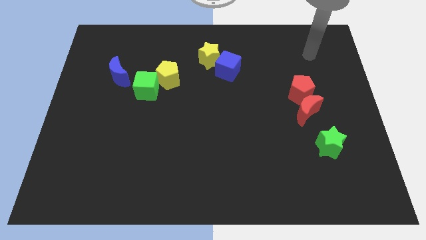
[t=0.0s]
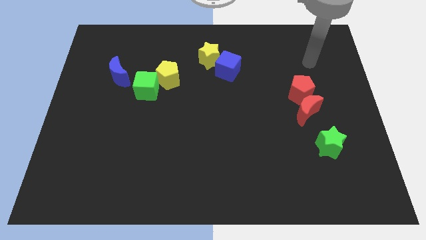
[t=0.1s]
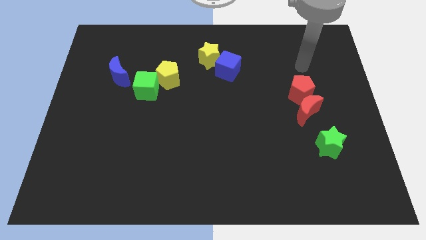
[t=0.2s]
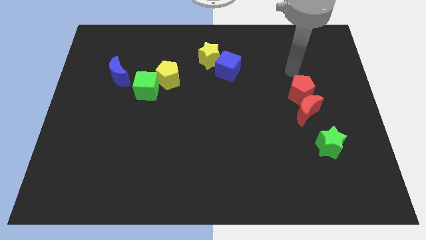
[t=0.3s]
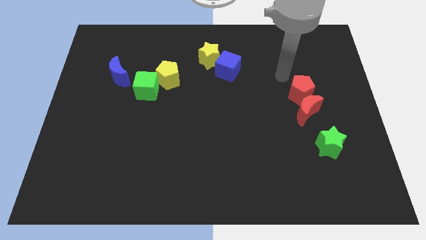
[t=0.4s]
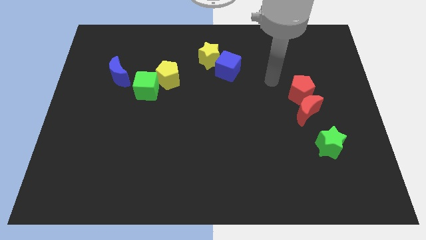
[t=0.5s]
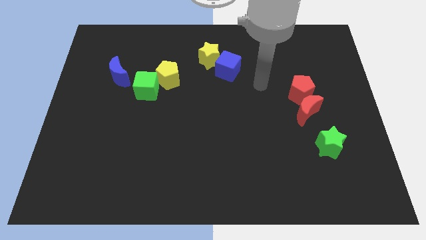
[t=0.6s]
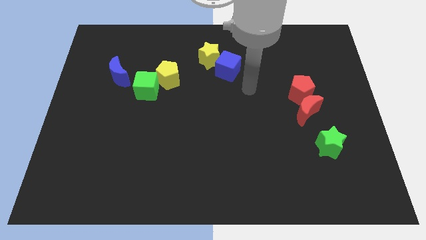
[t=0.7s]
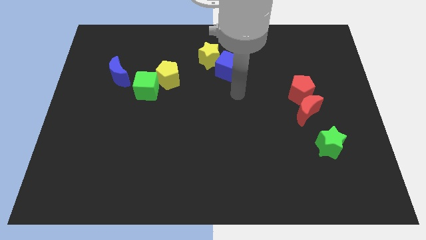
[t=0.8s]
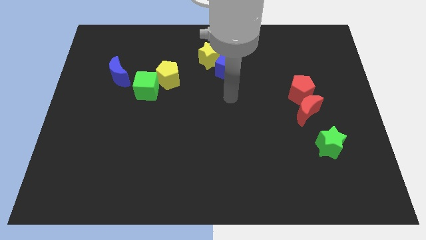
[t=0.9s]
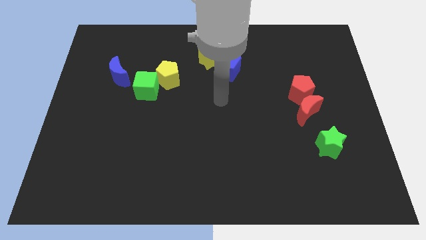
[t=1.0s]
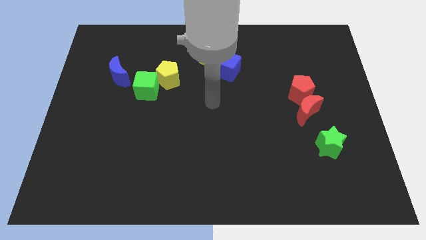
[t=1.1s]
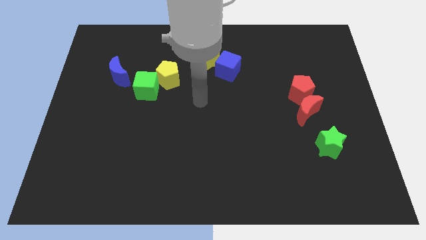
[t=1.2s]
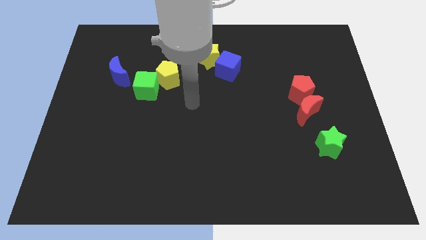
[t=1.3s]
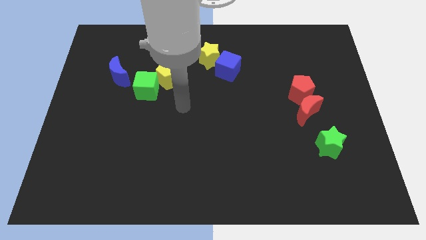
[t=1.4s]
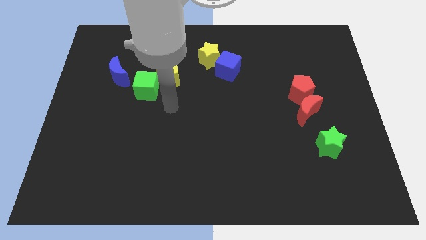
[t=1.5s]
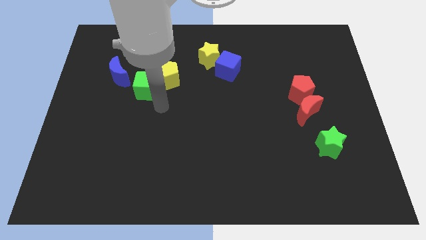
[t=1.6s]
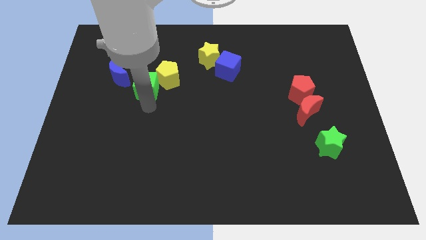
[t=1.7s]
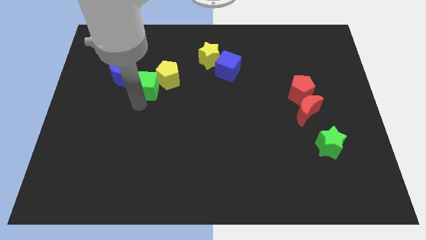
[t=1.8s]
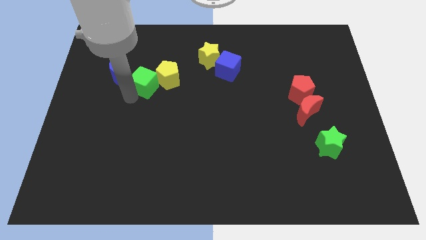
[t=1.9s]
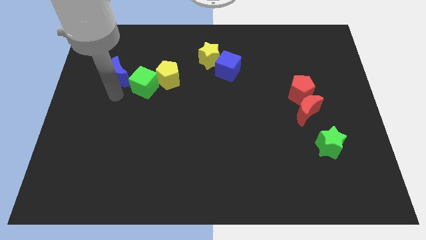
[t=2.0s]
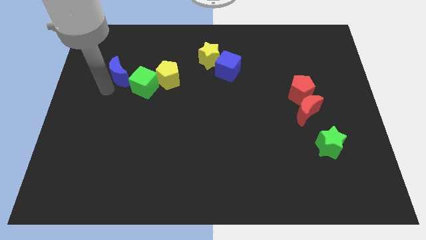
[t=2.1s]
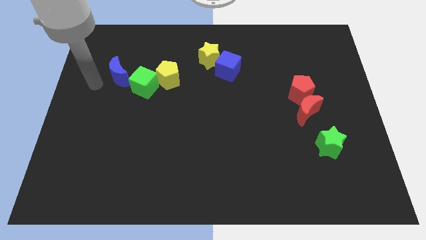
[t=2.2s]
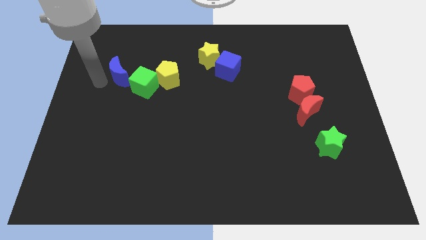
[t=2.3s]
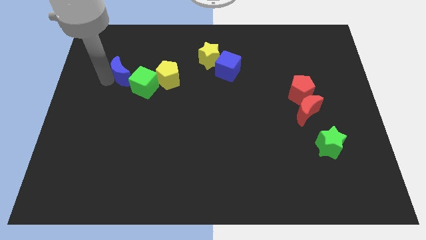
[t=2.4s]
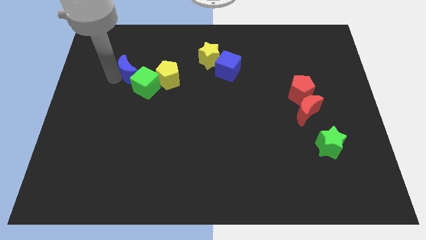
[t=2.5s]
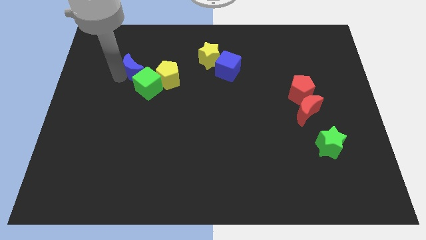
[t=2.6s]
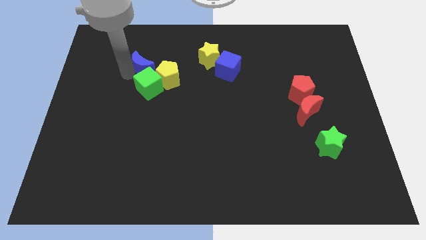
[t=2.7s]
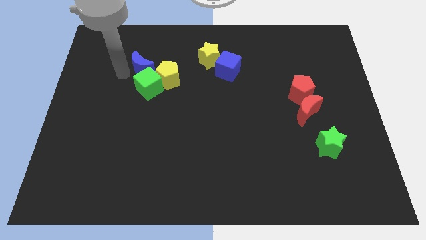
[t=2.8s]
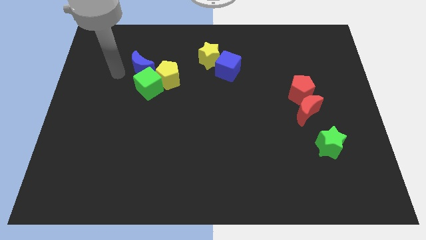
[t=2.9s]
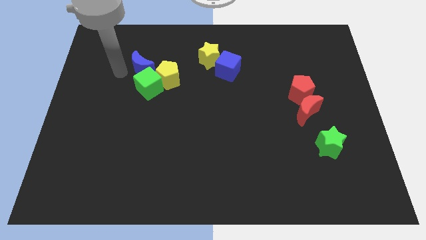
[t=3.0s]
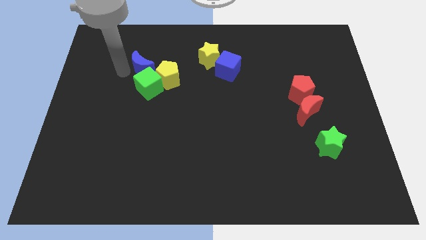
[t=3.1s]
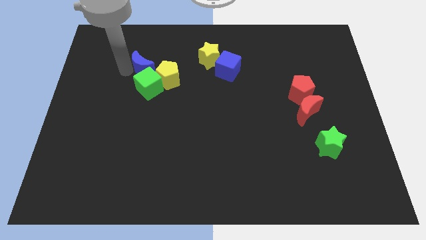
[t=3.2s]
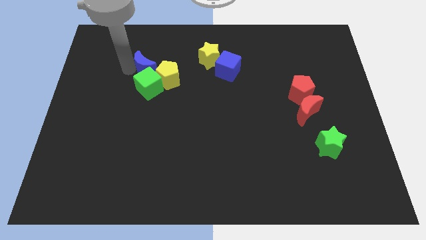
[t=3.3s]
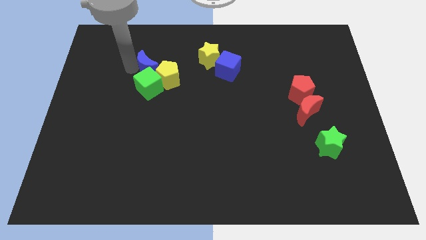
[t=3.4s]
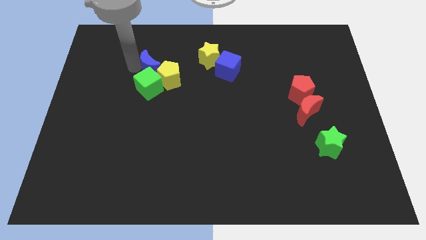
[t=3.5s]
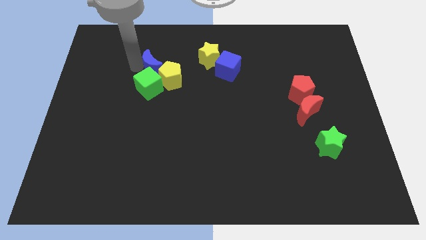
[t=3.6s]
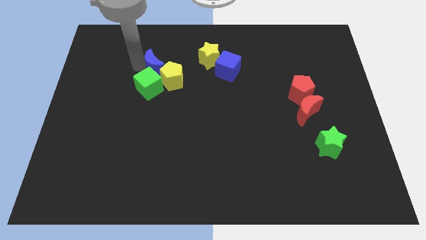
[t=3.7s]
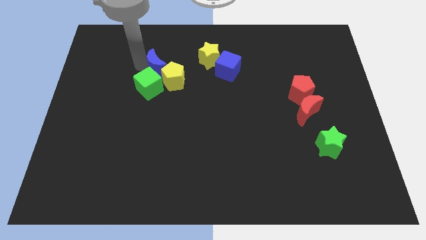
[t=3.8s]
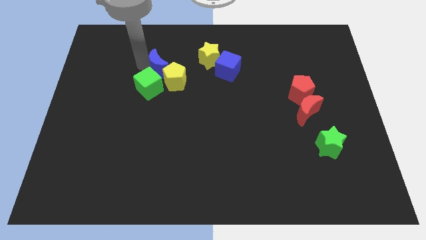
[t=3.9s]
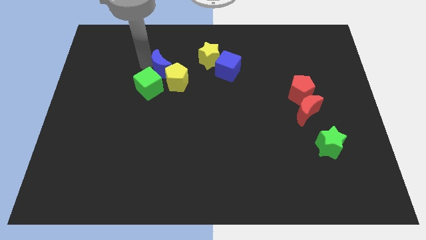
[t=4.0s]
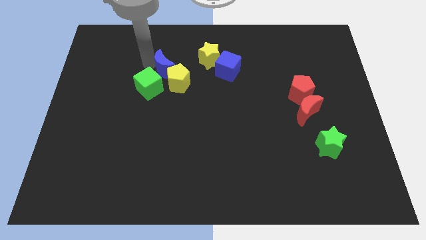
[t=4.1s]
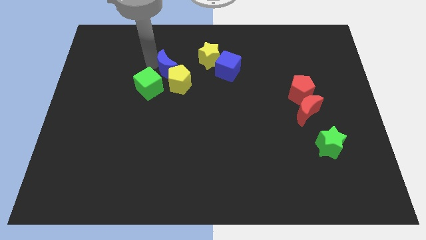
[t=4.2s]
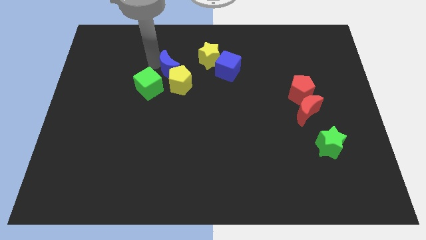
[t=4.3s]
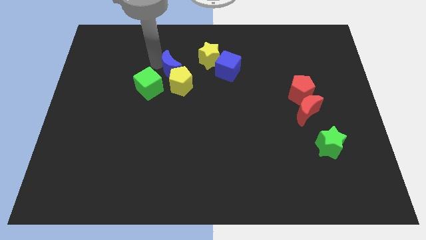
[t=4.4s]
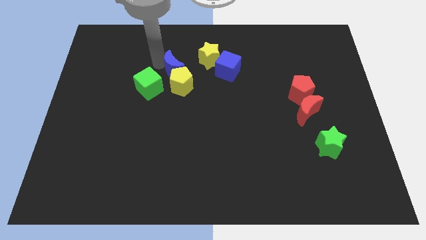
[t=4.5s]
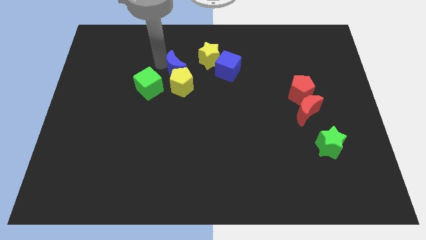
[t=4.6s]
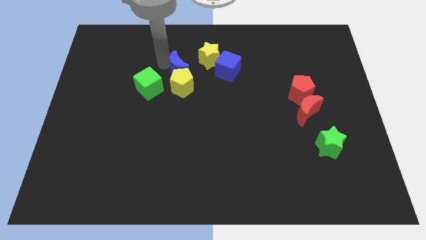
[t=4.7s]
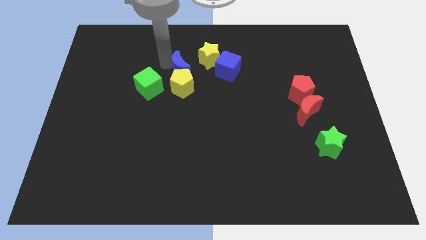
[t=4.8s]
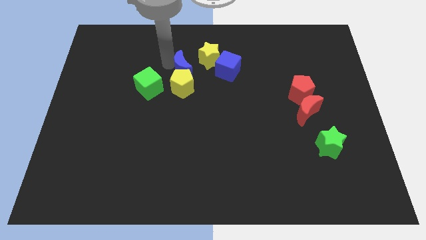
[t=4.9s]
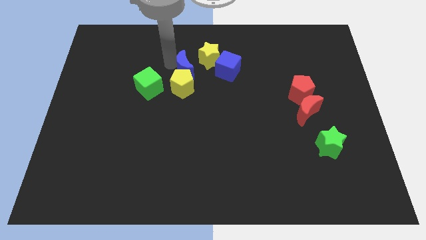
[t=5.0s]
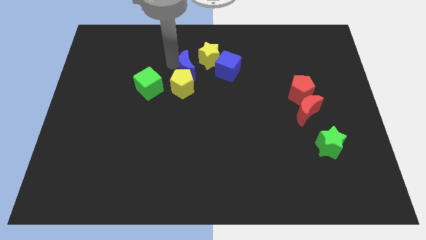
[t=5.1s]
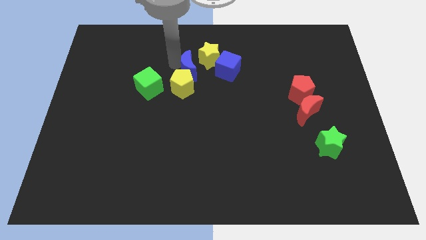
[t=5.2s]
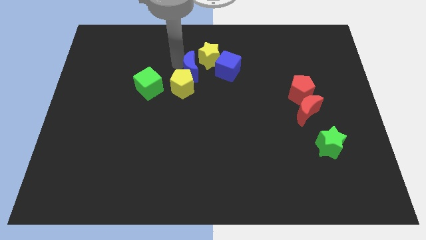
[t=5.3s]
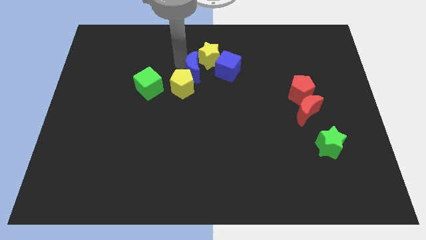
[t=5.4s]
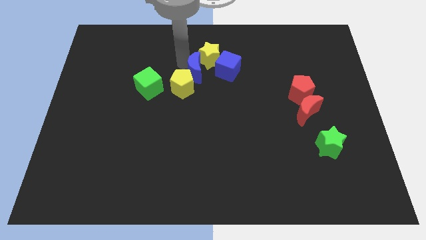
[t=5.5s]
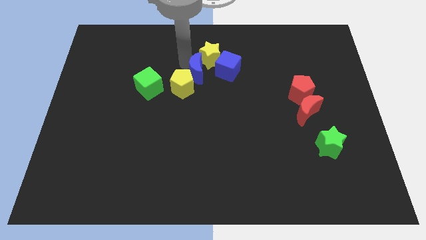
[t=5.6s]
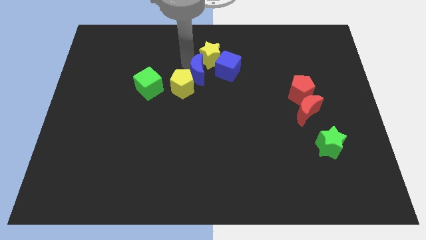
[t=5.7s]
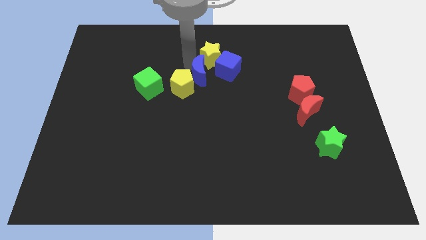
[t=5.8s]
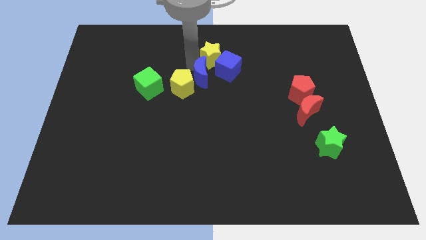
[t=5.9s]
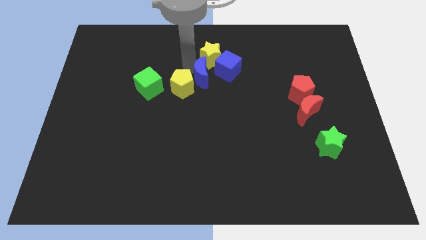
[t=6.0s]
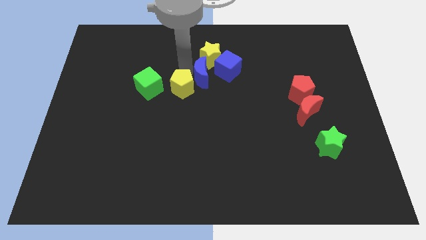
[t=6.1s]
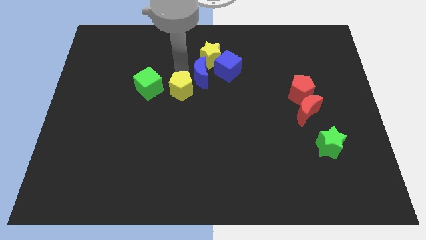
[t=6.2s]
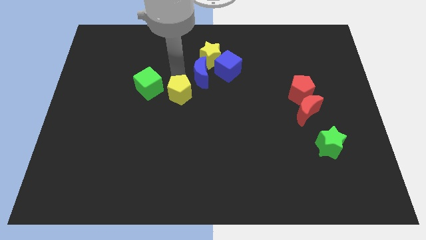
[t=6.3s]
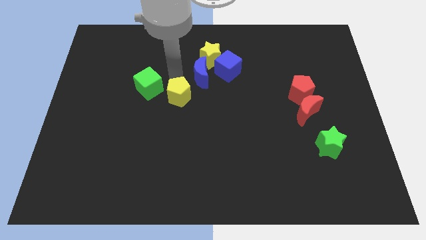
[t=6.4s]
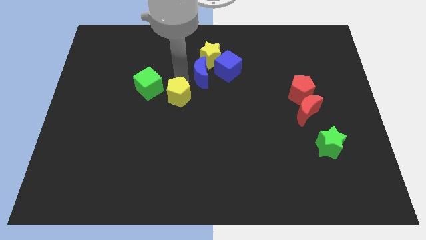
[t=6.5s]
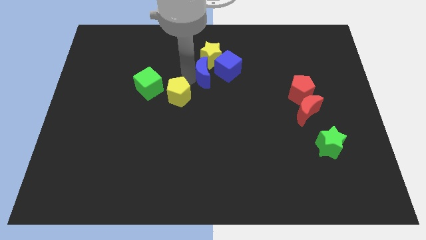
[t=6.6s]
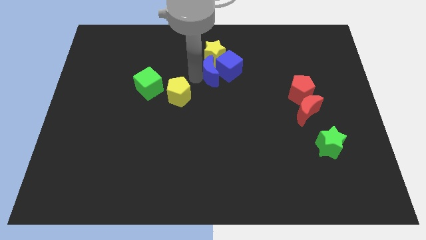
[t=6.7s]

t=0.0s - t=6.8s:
slide the blue moon to the blue cube

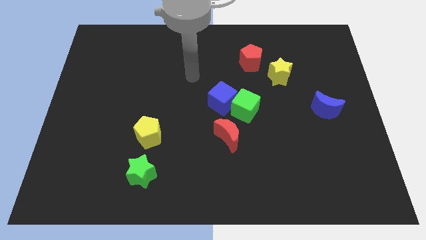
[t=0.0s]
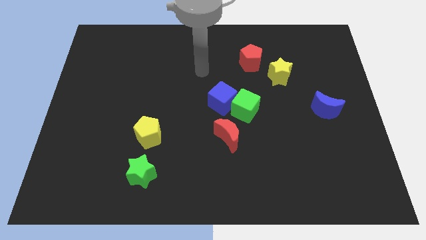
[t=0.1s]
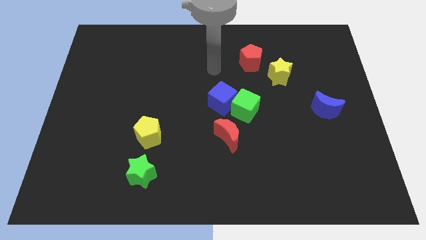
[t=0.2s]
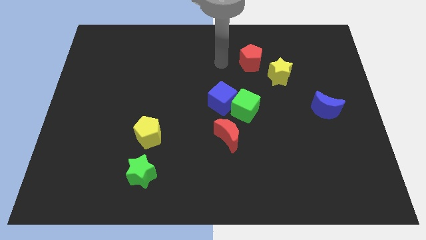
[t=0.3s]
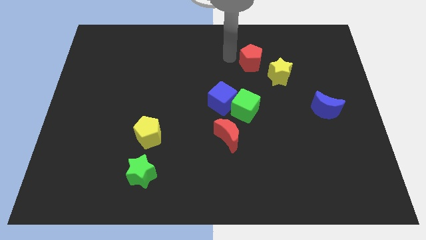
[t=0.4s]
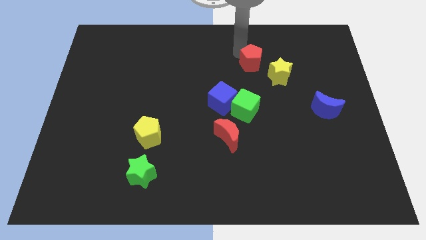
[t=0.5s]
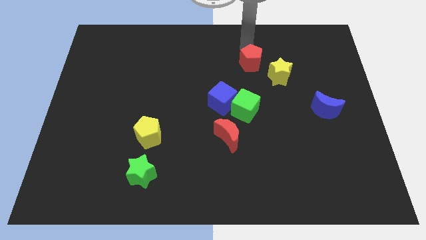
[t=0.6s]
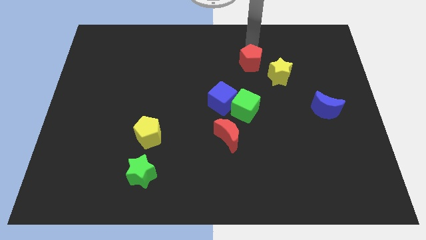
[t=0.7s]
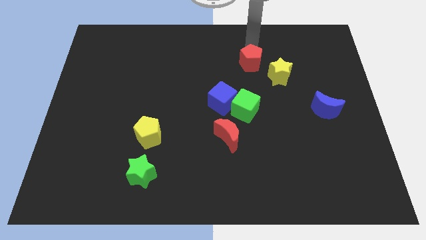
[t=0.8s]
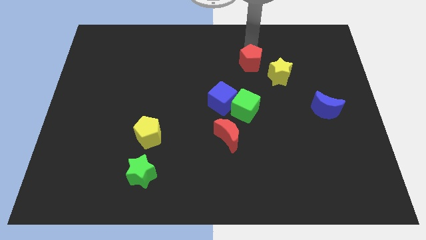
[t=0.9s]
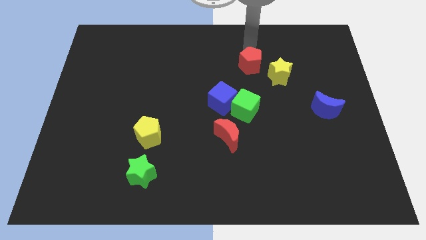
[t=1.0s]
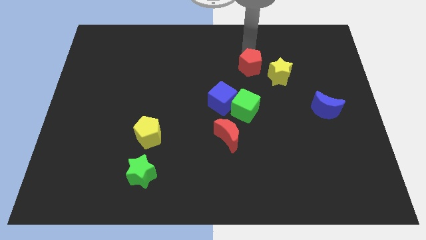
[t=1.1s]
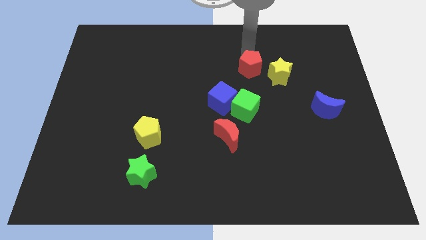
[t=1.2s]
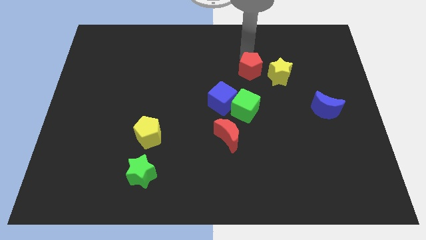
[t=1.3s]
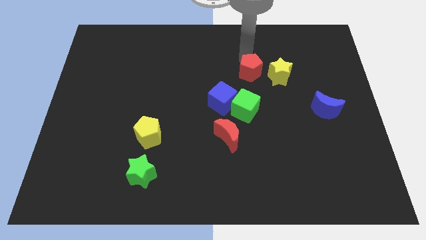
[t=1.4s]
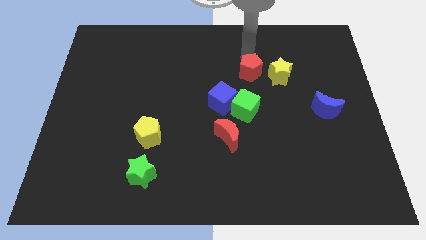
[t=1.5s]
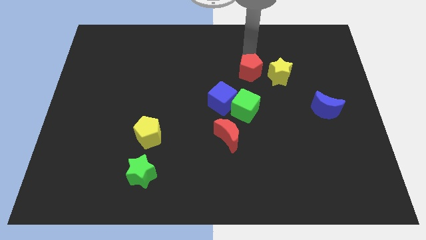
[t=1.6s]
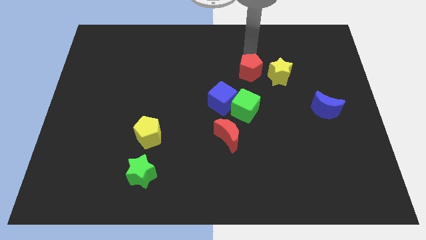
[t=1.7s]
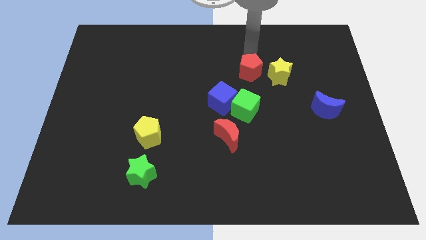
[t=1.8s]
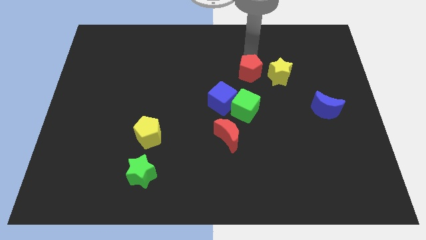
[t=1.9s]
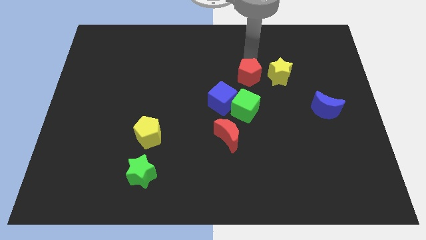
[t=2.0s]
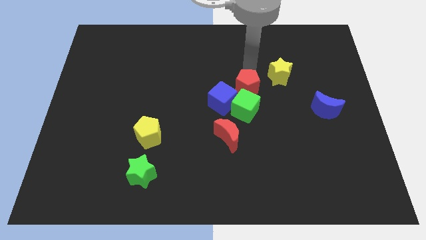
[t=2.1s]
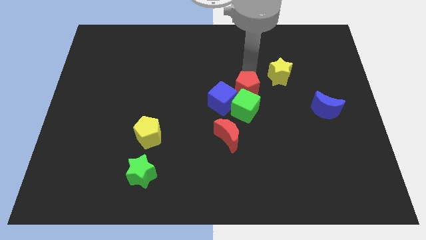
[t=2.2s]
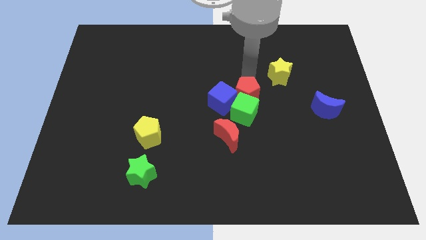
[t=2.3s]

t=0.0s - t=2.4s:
slide the red pentagon to the green cube
